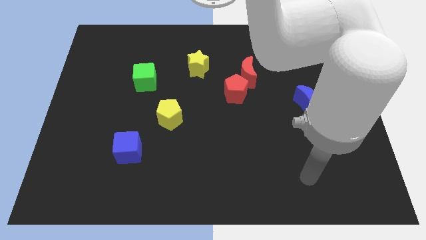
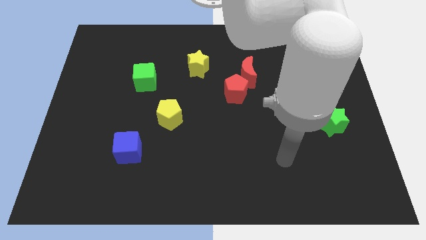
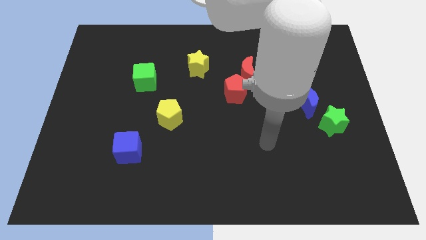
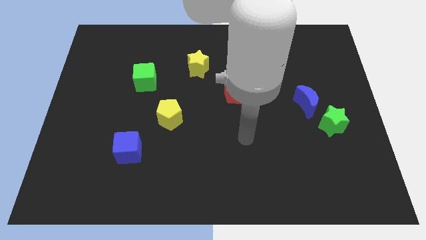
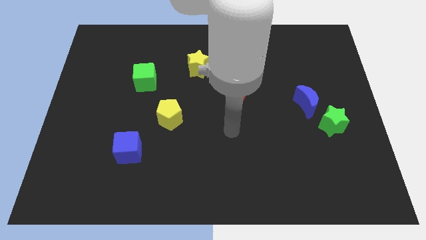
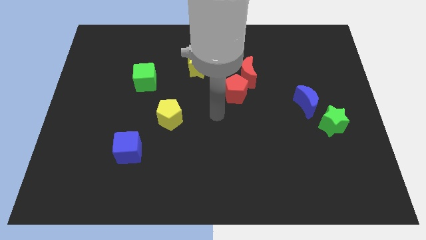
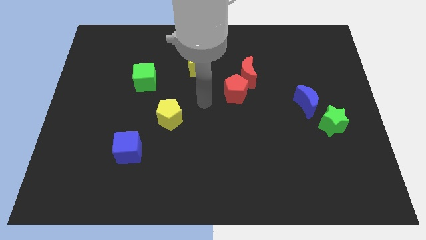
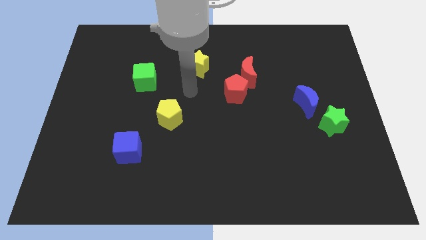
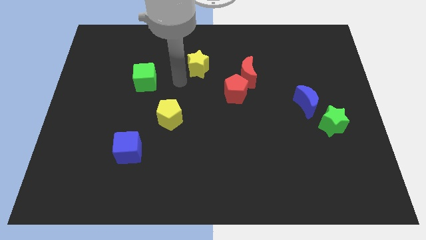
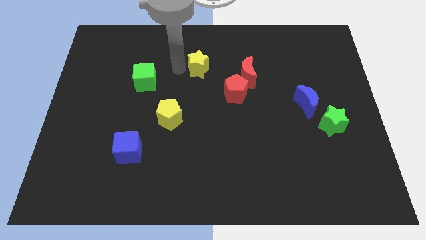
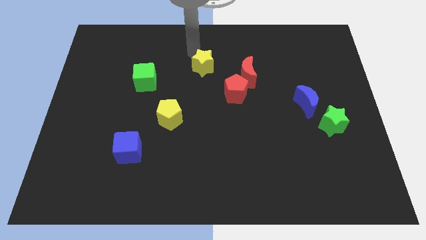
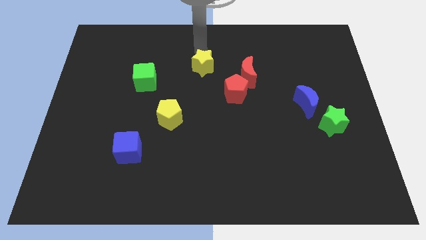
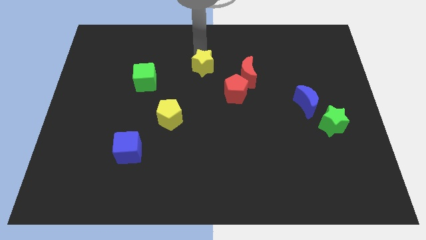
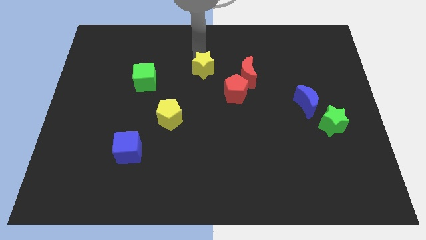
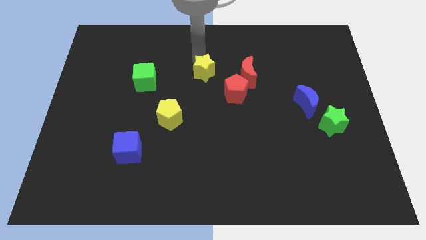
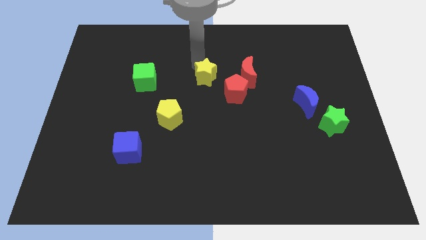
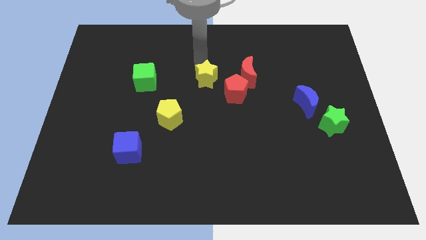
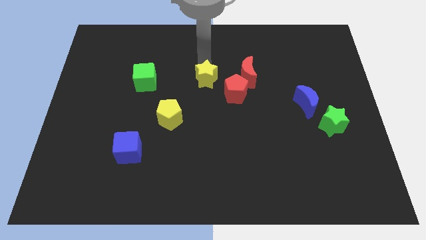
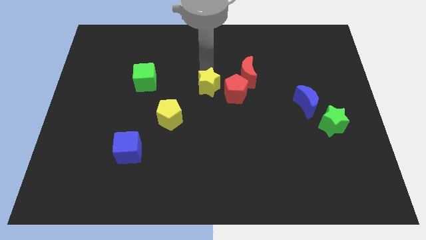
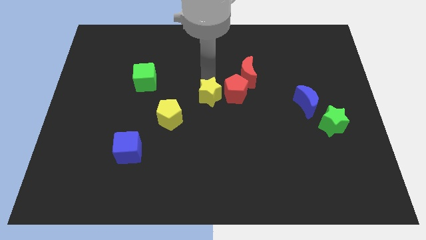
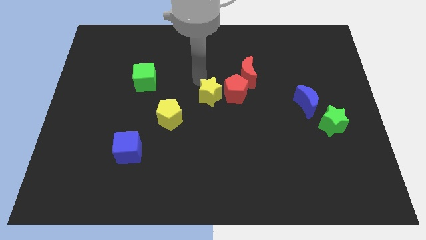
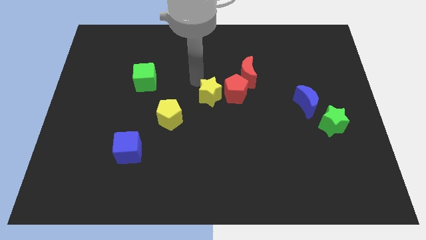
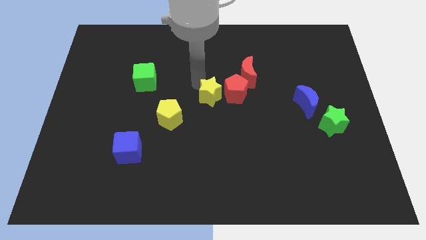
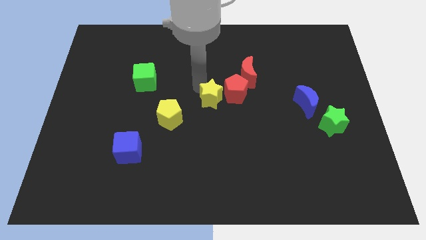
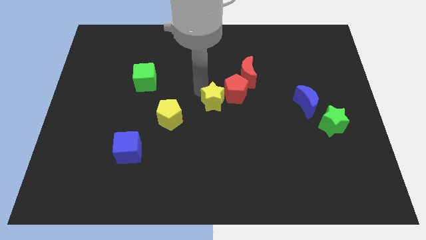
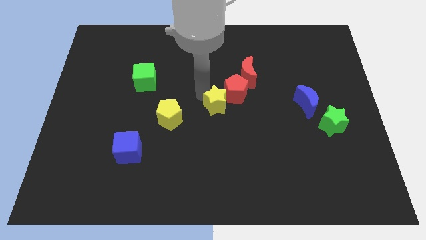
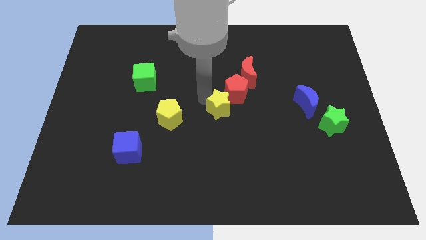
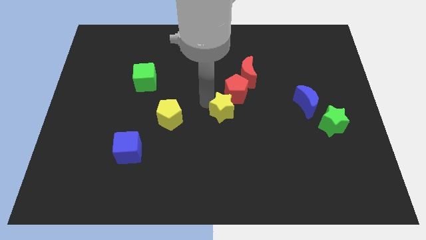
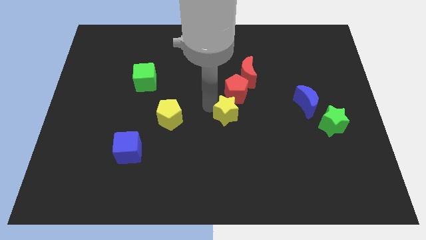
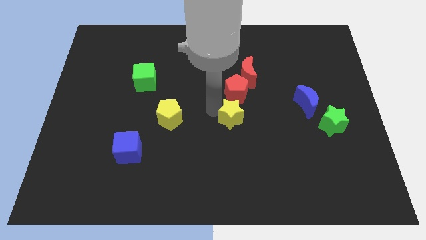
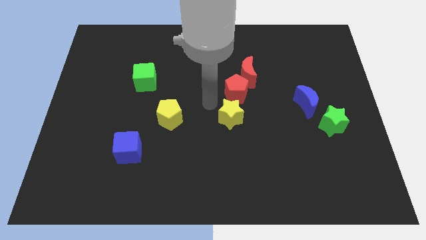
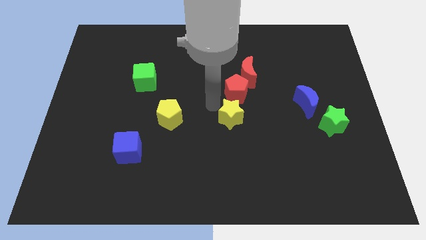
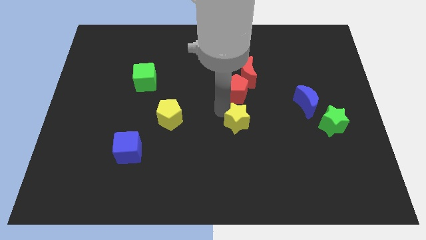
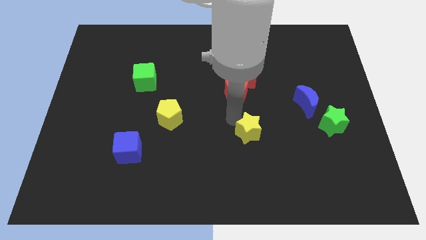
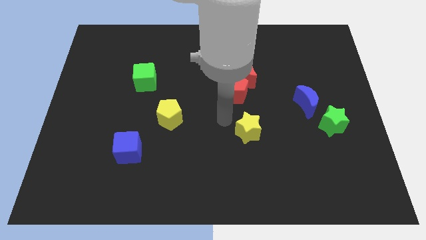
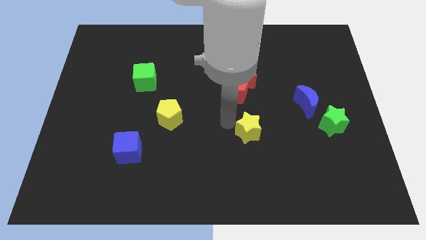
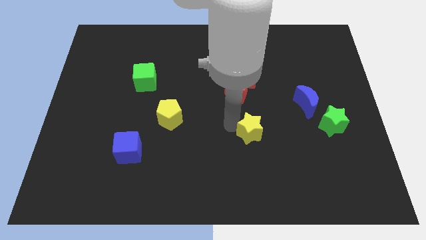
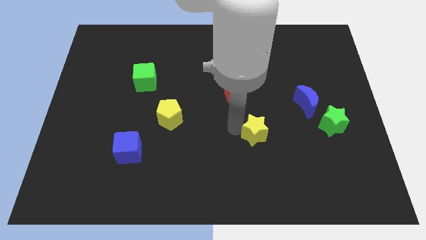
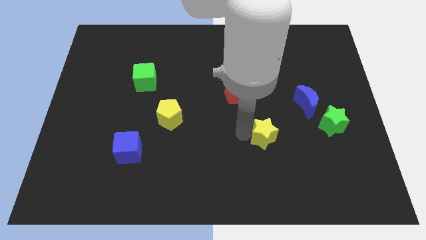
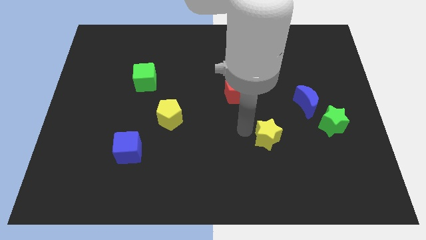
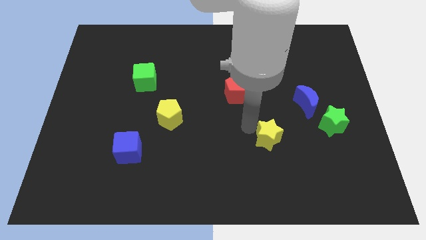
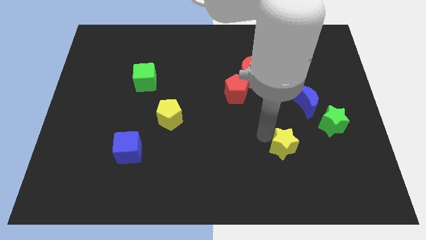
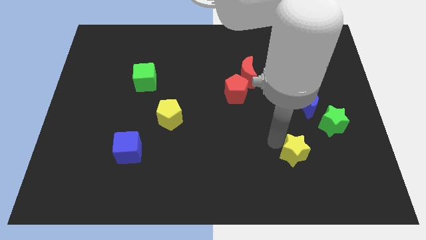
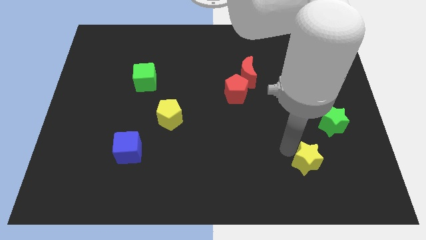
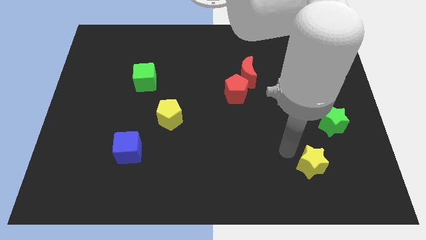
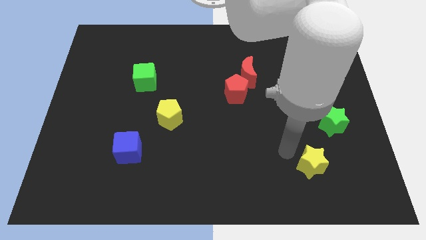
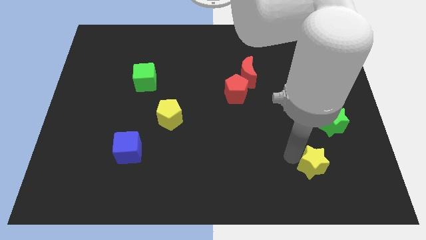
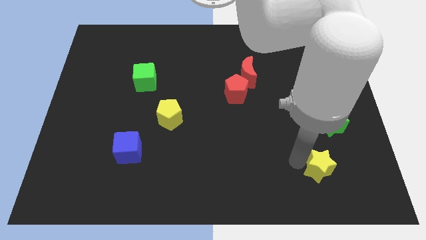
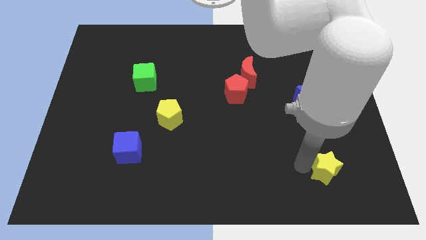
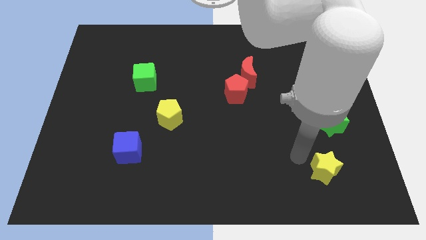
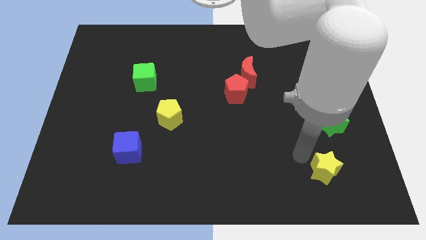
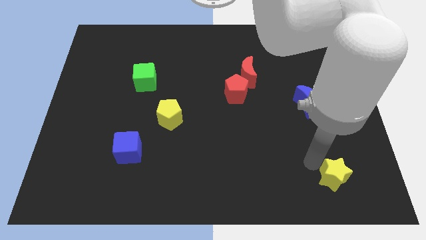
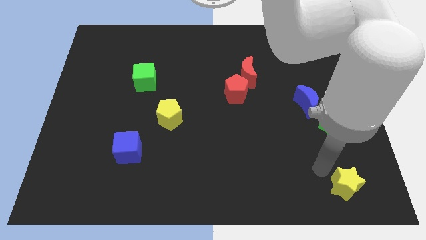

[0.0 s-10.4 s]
move the yellow star to the lower right corner

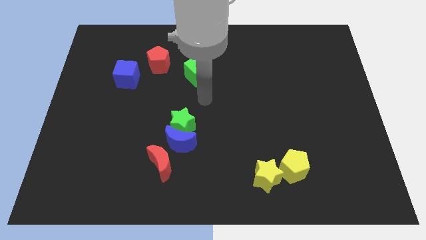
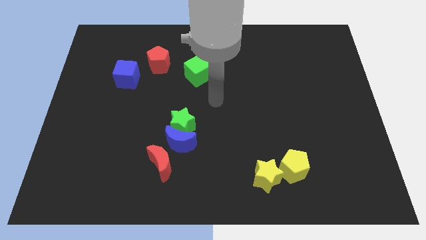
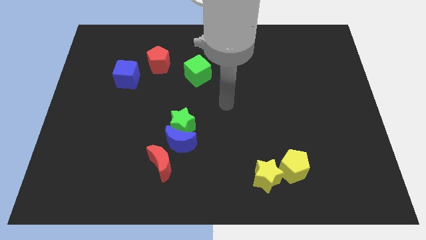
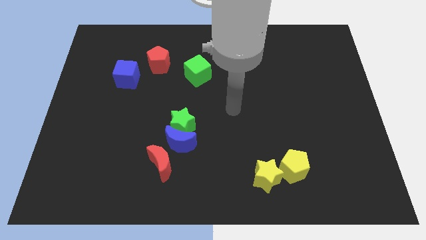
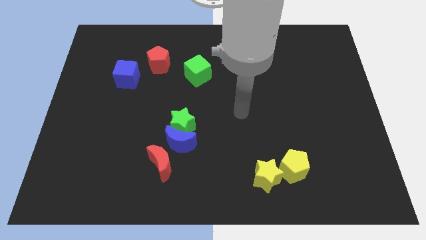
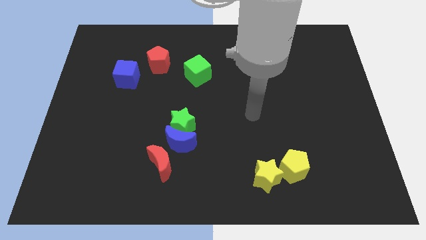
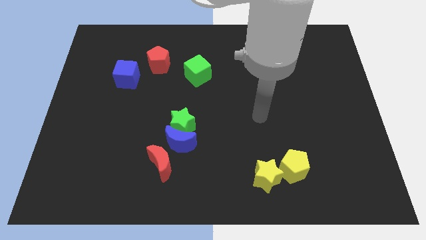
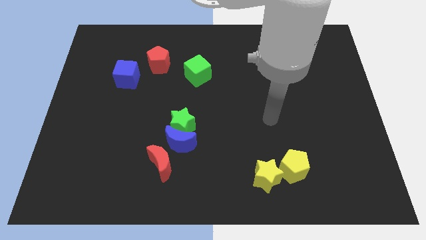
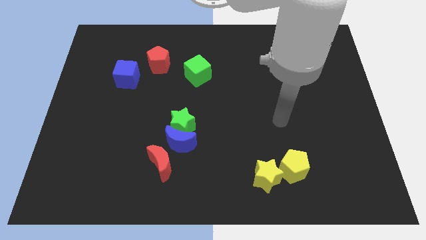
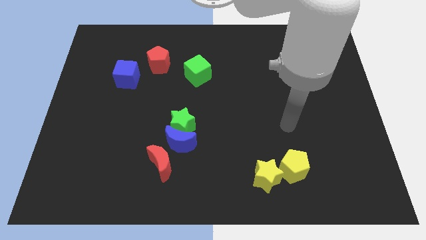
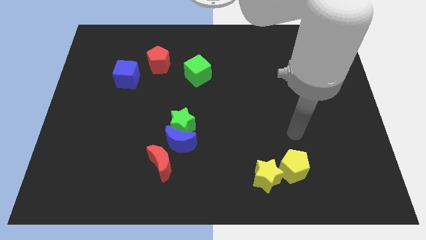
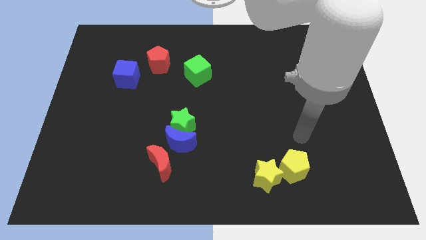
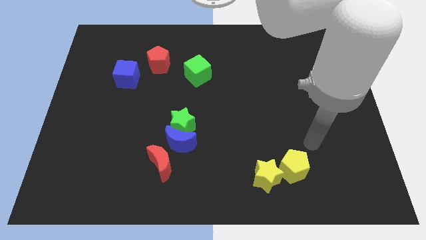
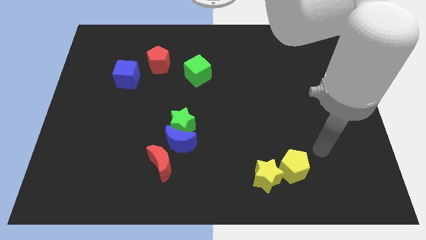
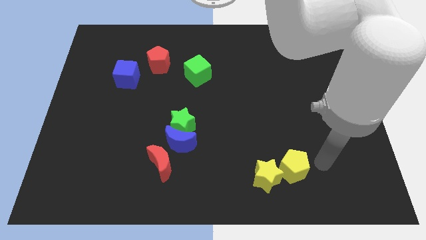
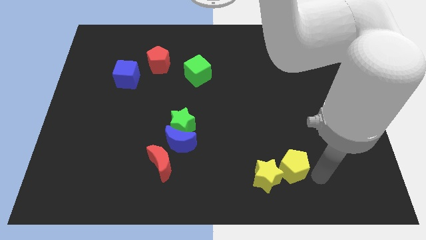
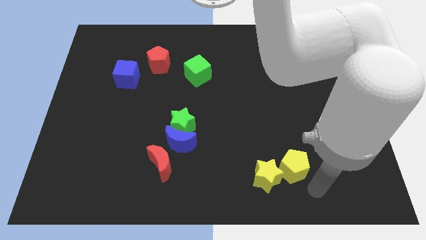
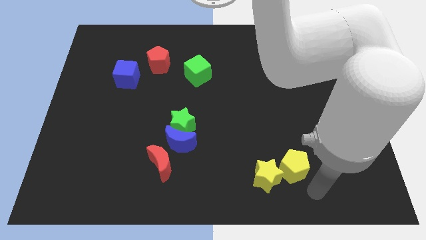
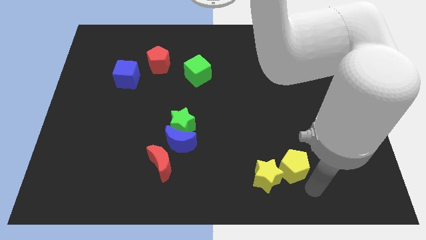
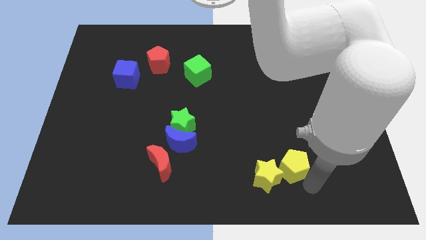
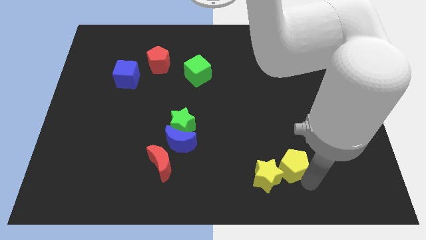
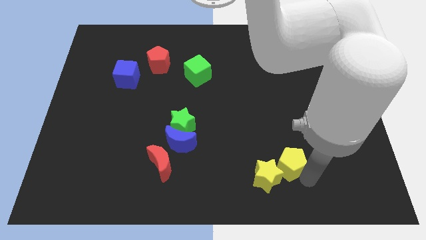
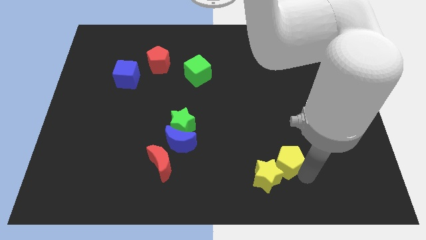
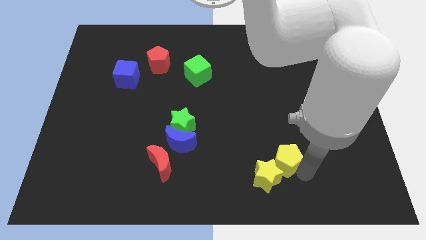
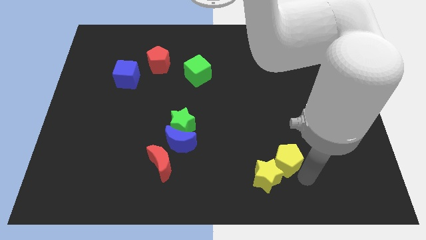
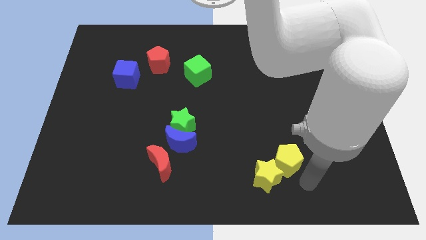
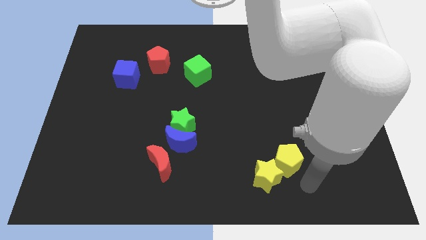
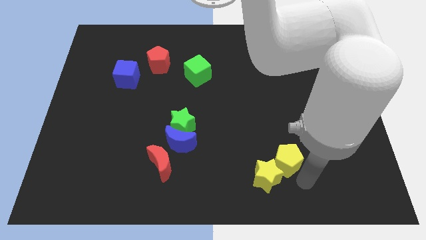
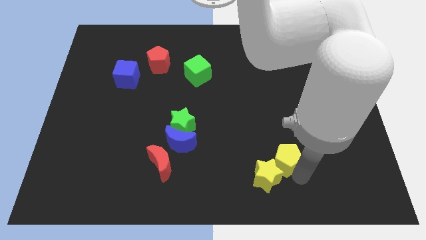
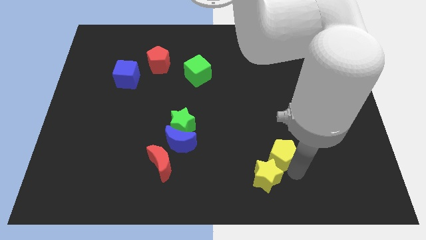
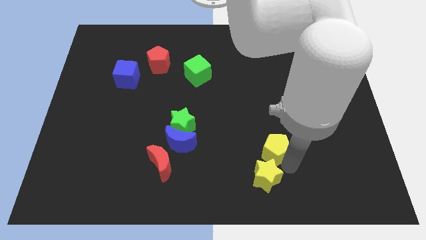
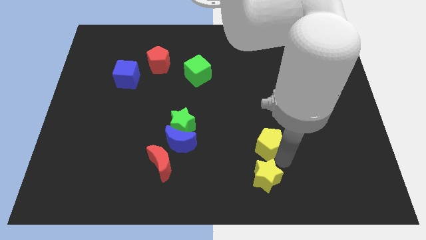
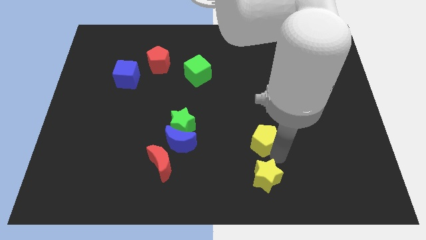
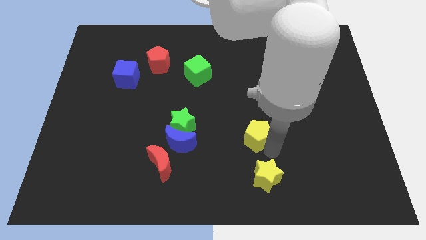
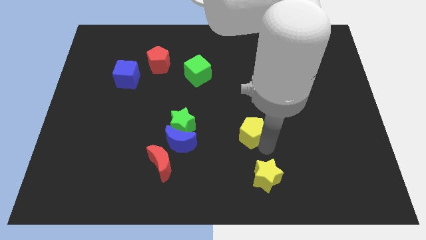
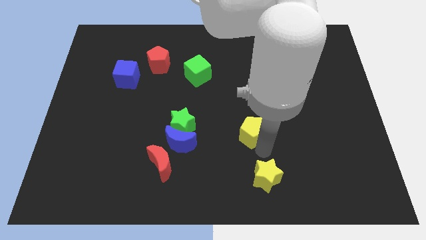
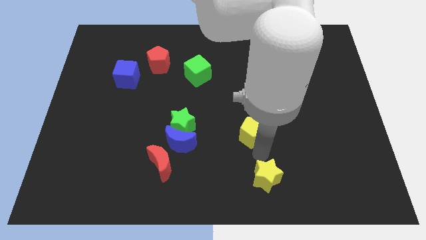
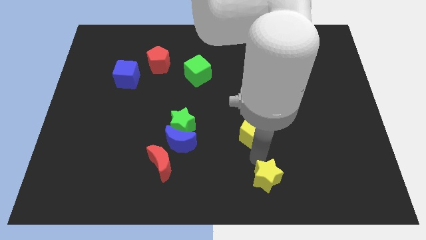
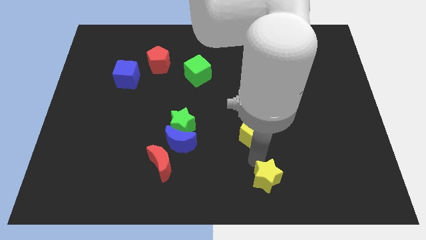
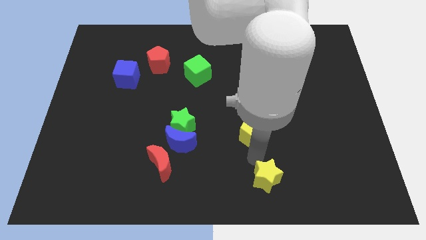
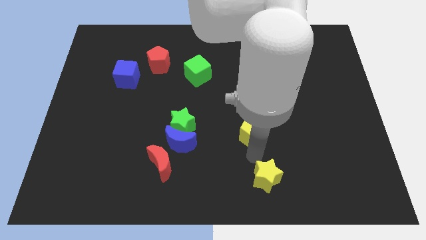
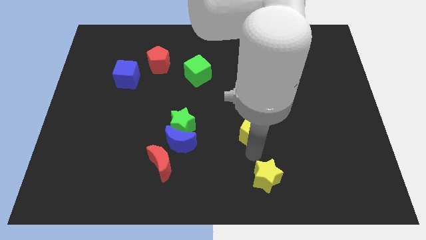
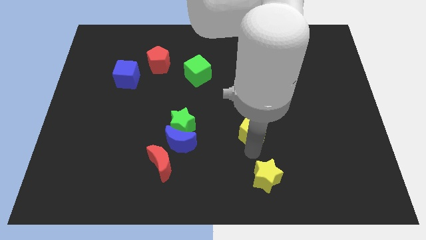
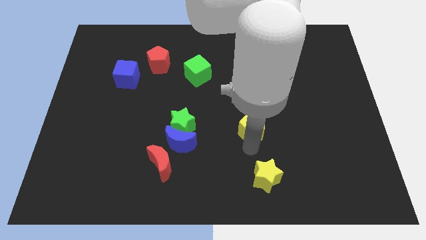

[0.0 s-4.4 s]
push the yellow pentagon to the middle of the board
